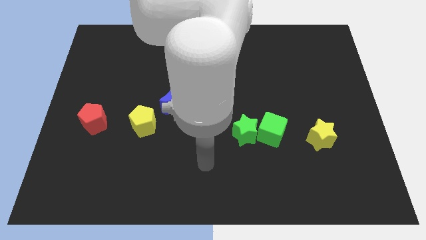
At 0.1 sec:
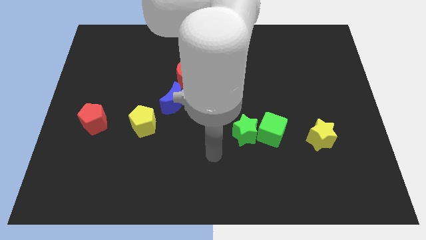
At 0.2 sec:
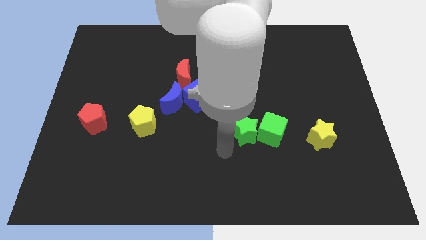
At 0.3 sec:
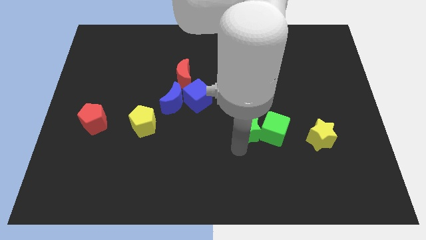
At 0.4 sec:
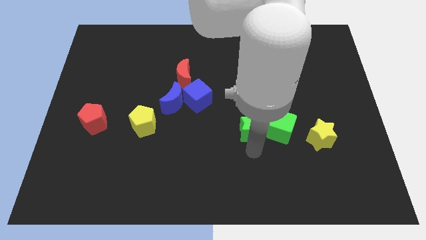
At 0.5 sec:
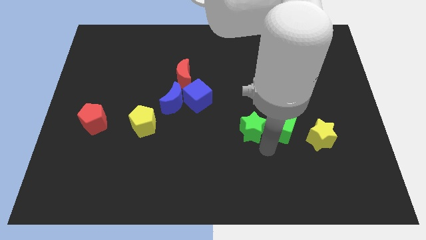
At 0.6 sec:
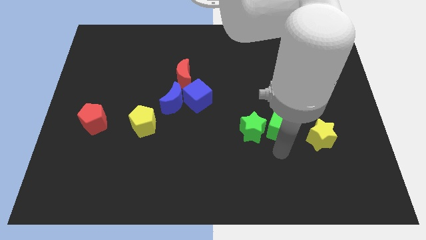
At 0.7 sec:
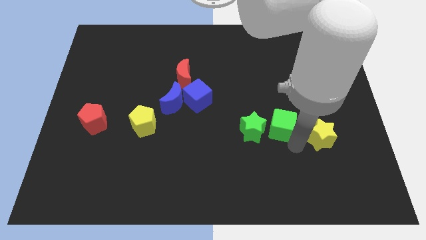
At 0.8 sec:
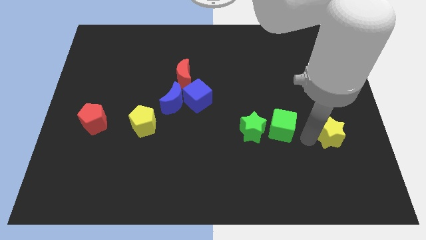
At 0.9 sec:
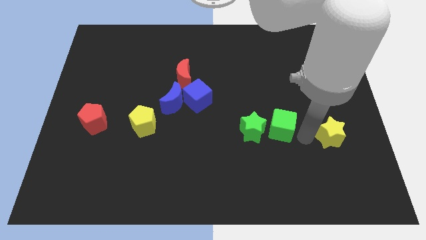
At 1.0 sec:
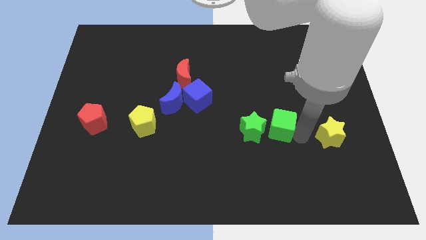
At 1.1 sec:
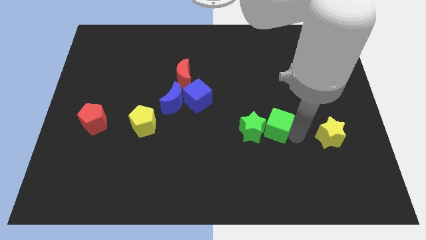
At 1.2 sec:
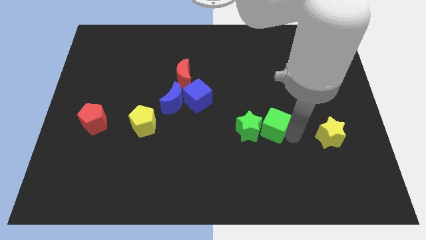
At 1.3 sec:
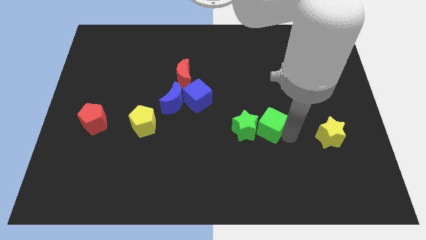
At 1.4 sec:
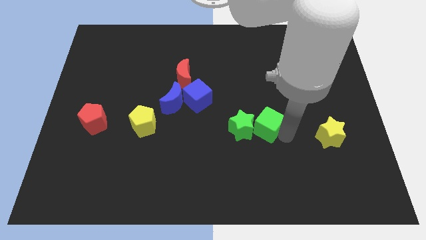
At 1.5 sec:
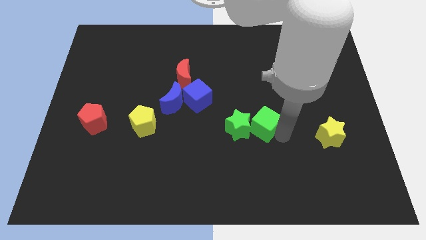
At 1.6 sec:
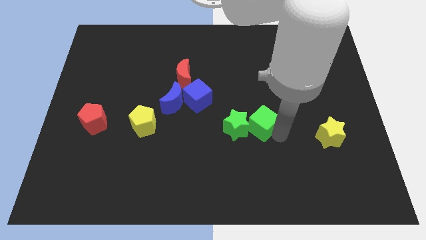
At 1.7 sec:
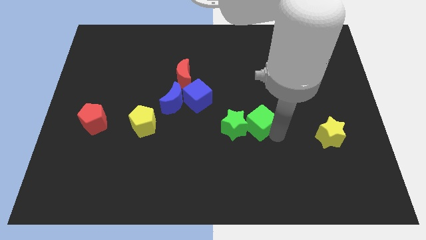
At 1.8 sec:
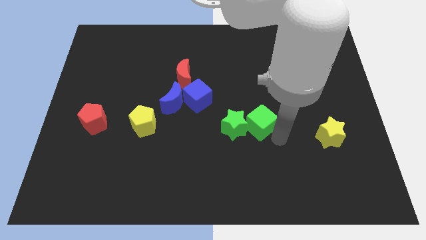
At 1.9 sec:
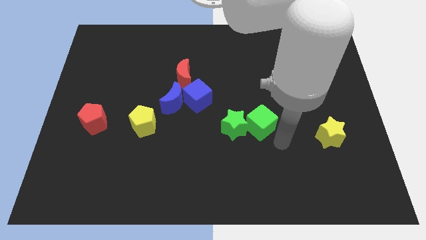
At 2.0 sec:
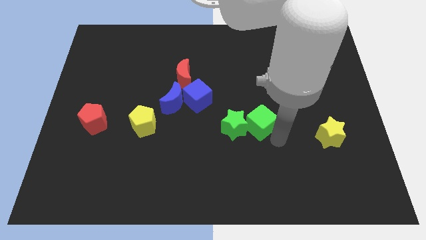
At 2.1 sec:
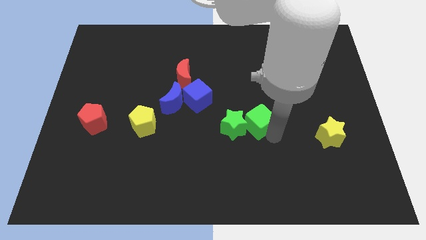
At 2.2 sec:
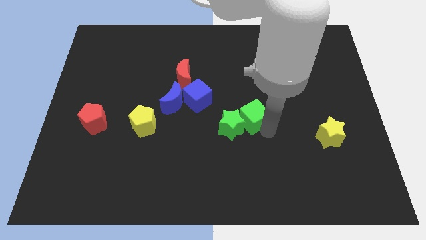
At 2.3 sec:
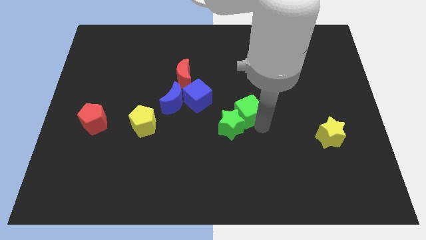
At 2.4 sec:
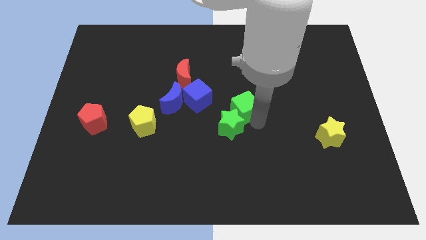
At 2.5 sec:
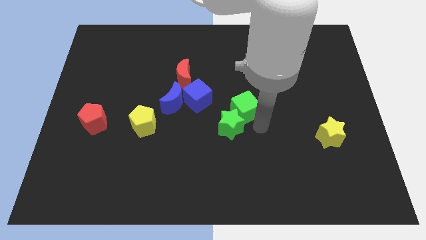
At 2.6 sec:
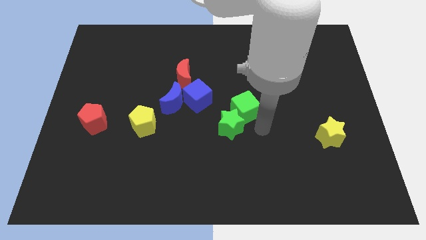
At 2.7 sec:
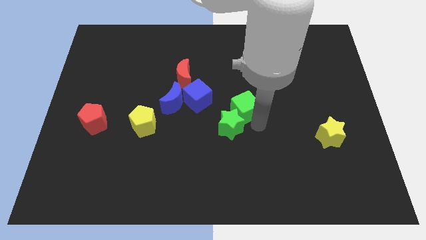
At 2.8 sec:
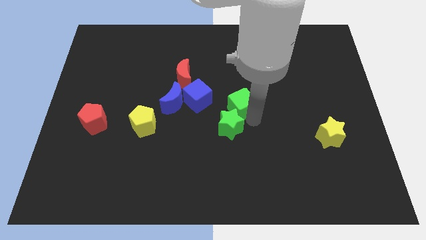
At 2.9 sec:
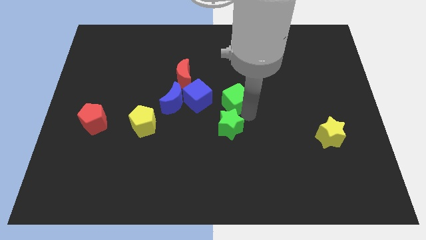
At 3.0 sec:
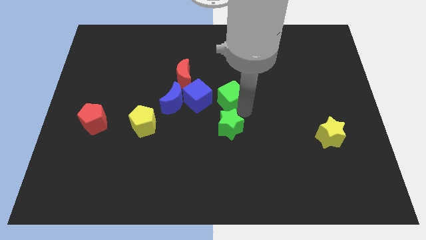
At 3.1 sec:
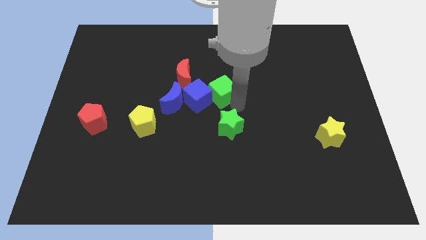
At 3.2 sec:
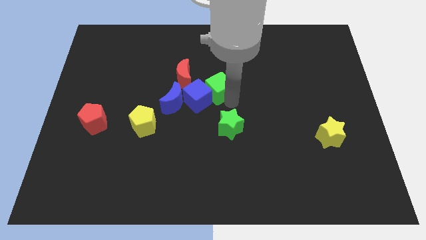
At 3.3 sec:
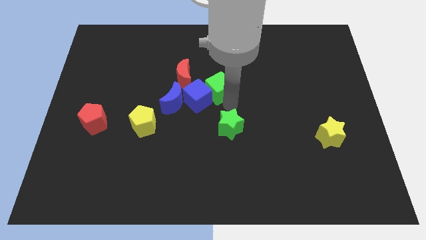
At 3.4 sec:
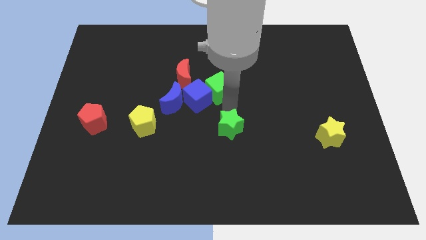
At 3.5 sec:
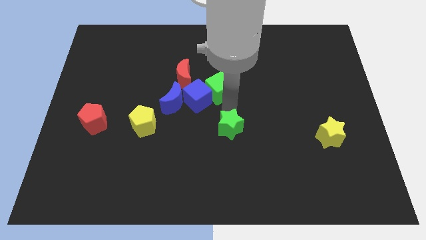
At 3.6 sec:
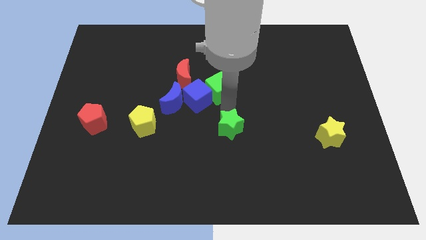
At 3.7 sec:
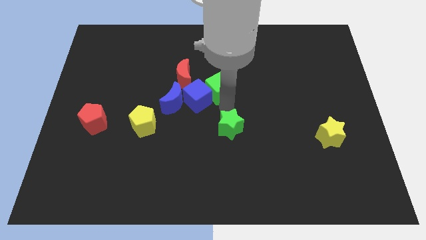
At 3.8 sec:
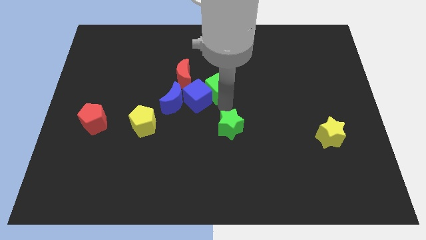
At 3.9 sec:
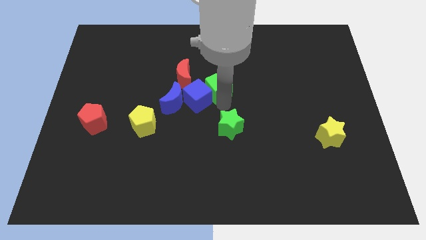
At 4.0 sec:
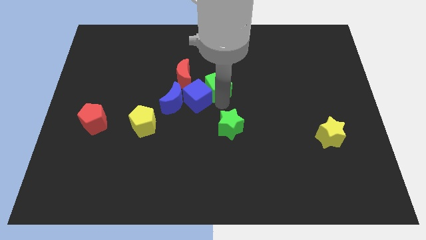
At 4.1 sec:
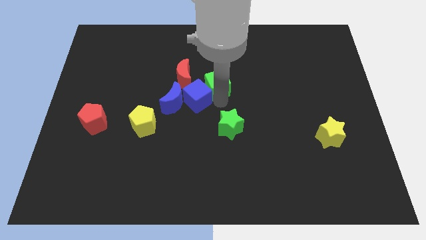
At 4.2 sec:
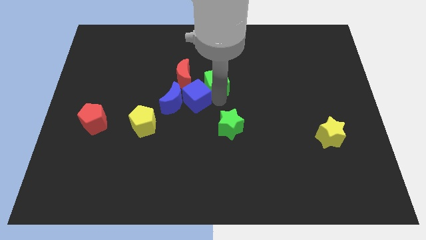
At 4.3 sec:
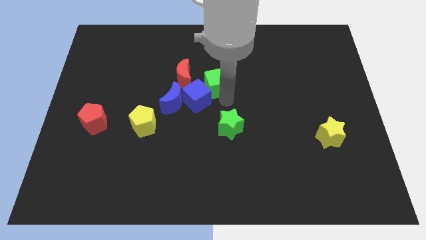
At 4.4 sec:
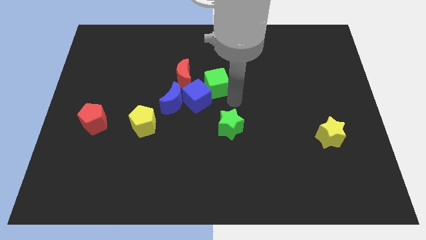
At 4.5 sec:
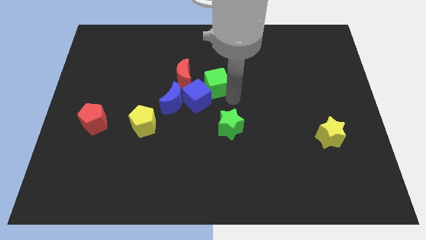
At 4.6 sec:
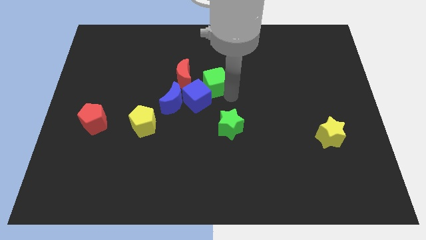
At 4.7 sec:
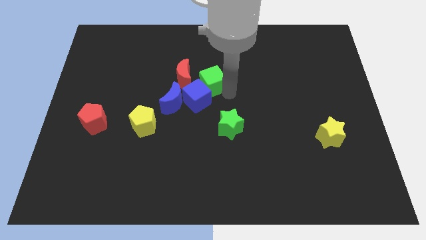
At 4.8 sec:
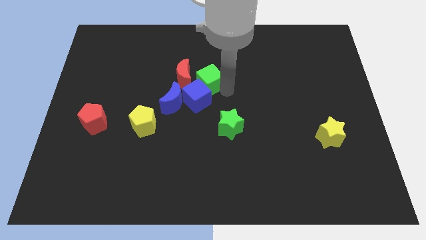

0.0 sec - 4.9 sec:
push the green cube upwards and then to the left

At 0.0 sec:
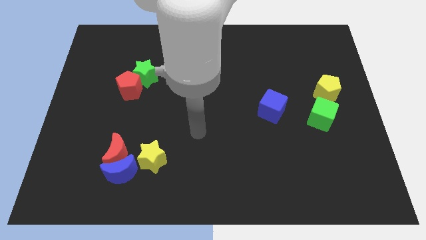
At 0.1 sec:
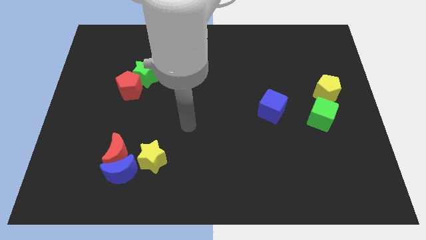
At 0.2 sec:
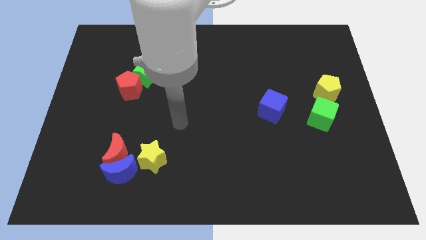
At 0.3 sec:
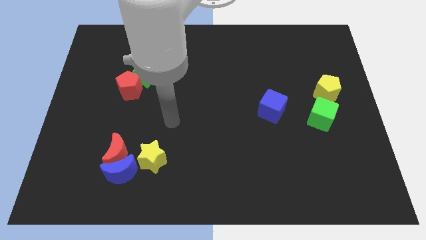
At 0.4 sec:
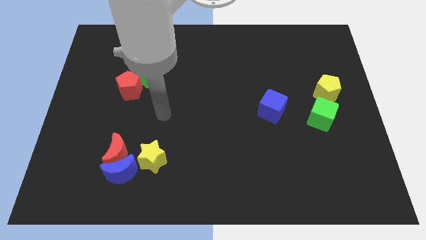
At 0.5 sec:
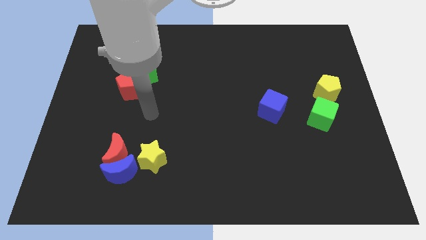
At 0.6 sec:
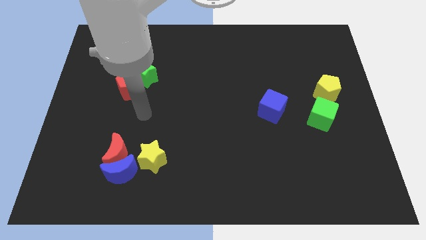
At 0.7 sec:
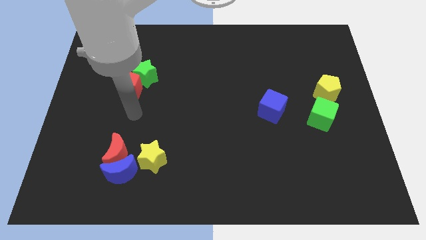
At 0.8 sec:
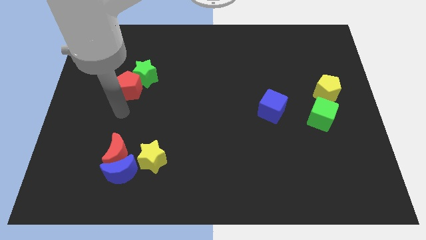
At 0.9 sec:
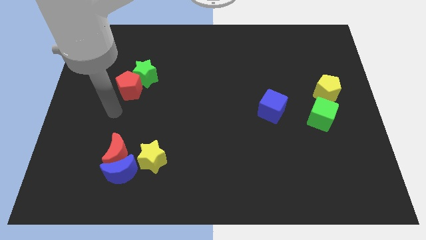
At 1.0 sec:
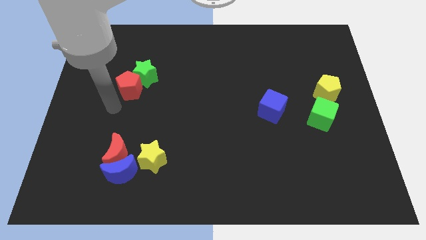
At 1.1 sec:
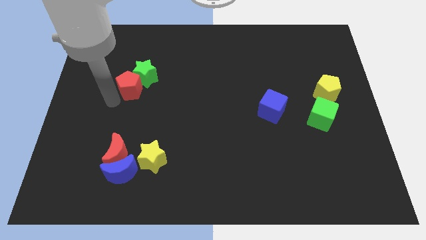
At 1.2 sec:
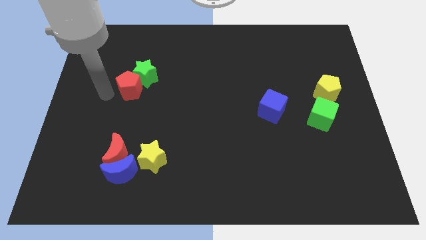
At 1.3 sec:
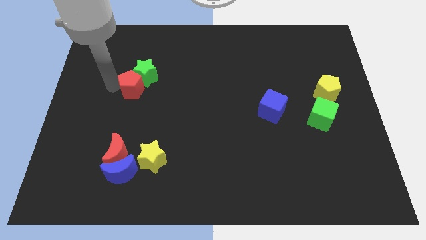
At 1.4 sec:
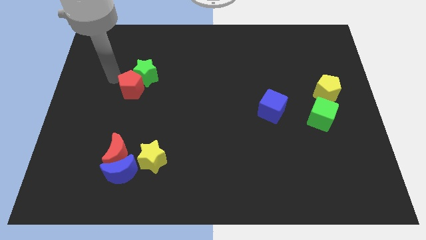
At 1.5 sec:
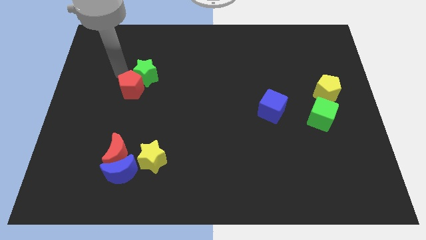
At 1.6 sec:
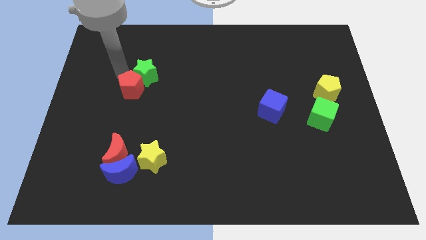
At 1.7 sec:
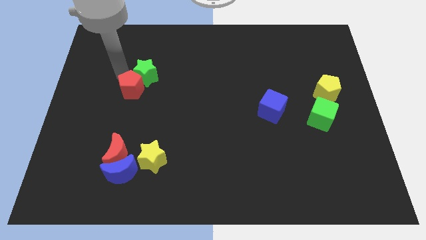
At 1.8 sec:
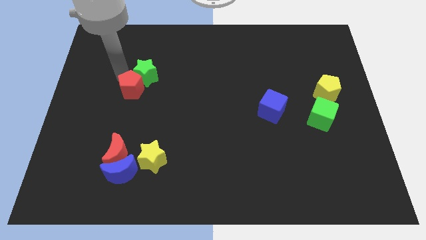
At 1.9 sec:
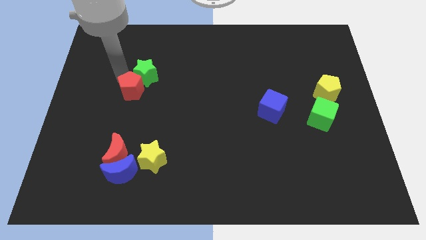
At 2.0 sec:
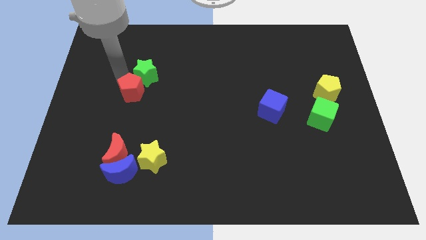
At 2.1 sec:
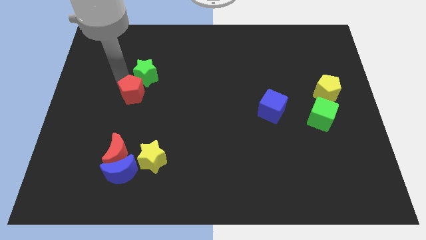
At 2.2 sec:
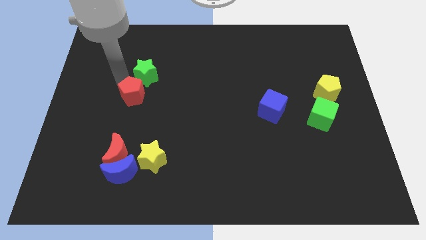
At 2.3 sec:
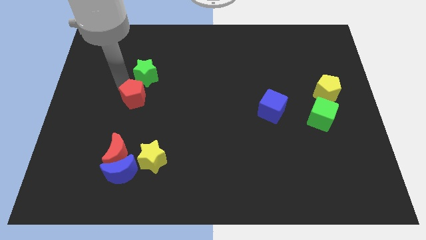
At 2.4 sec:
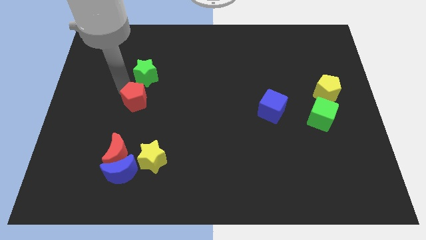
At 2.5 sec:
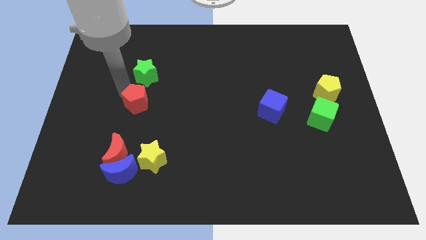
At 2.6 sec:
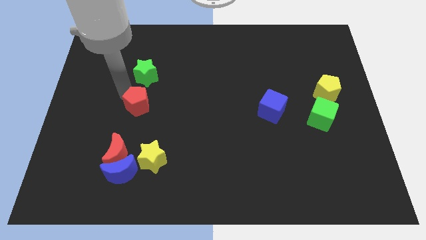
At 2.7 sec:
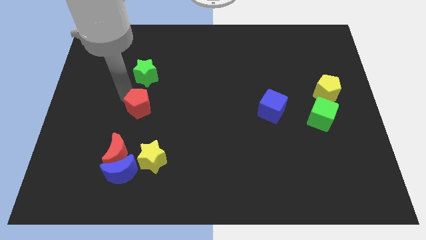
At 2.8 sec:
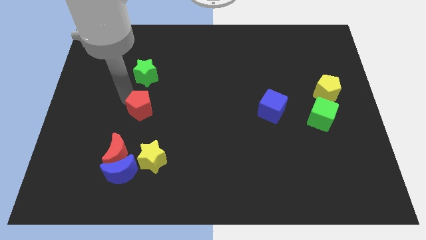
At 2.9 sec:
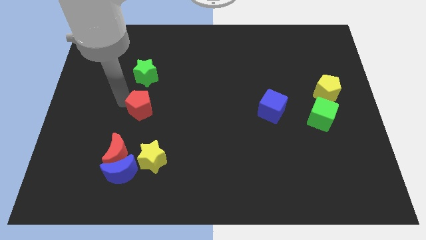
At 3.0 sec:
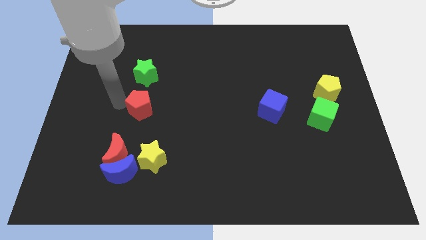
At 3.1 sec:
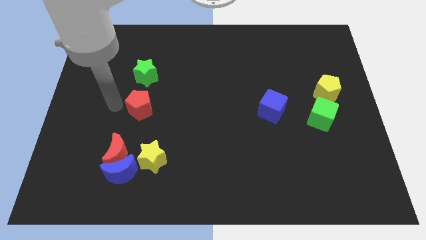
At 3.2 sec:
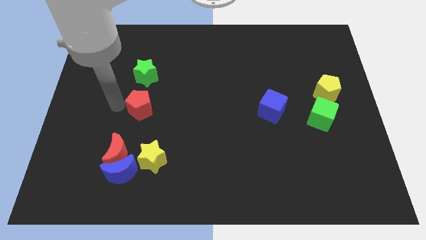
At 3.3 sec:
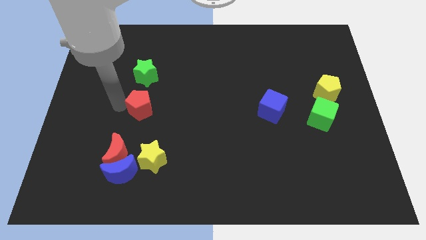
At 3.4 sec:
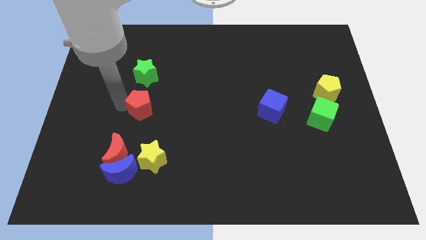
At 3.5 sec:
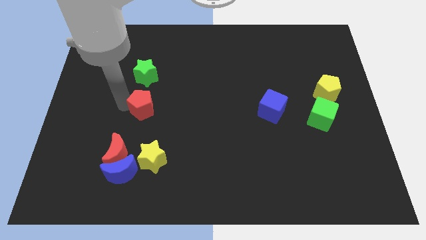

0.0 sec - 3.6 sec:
slightly move the red pentagon downwards and right diagonally

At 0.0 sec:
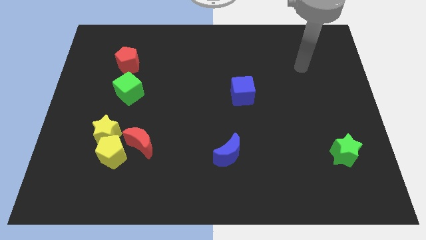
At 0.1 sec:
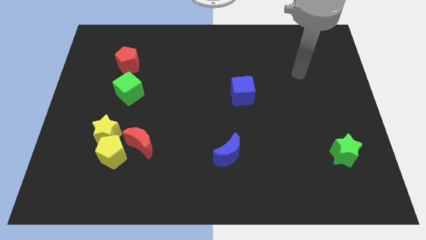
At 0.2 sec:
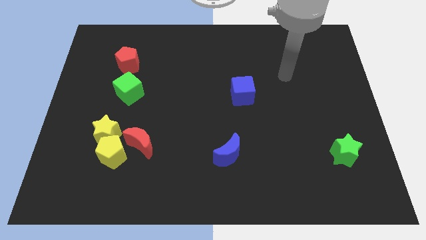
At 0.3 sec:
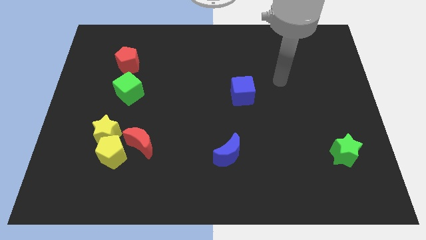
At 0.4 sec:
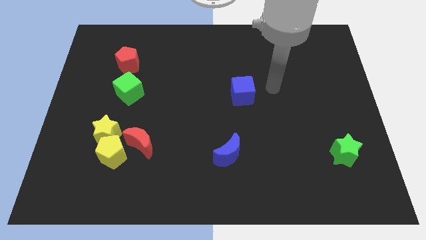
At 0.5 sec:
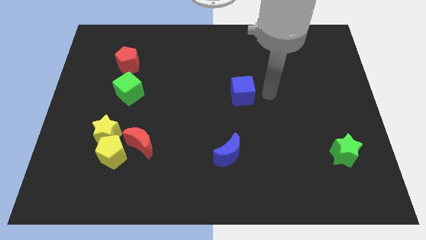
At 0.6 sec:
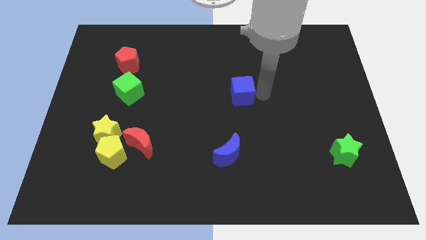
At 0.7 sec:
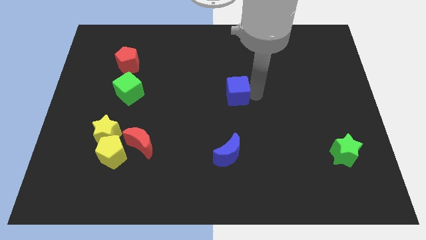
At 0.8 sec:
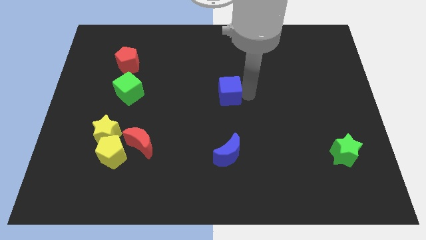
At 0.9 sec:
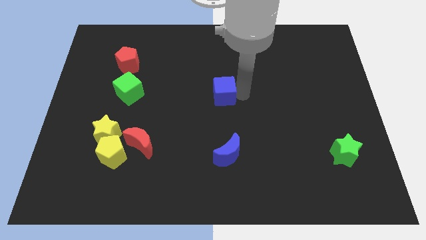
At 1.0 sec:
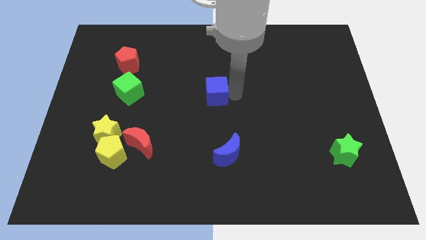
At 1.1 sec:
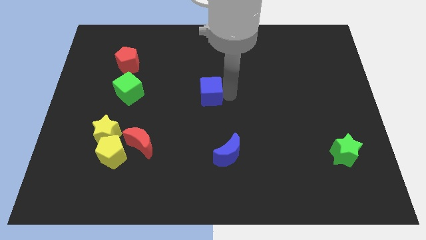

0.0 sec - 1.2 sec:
slightly push the blue cube left
